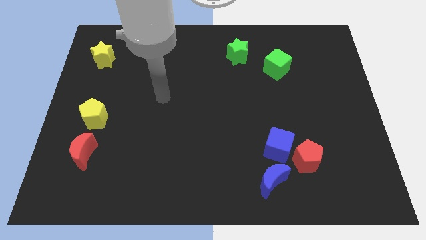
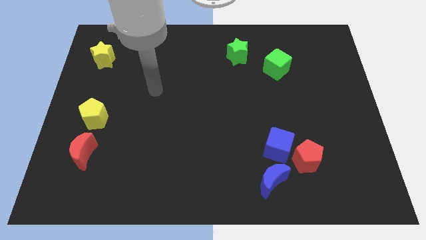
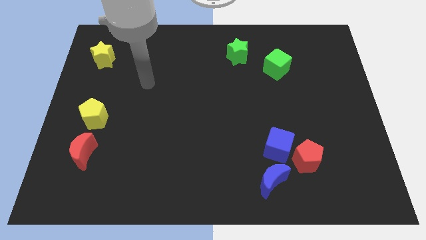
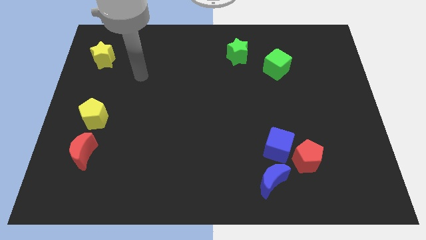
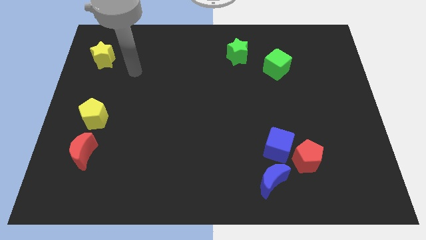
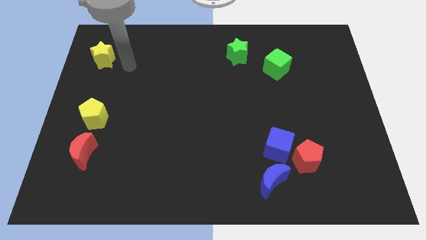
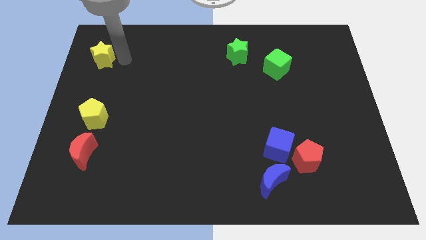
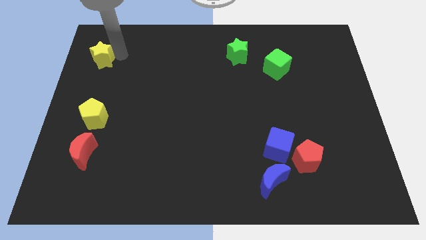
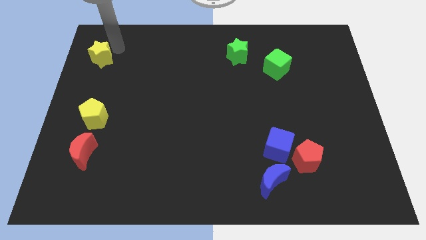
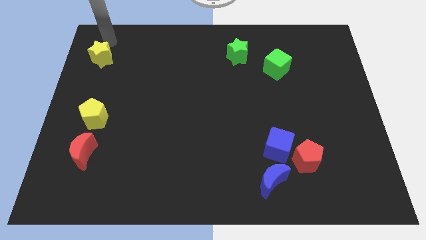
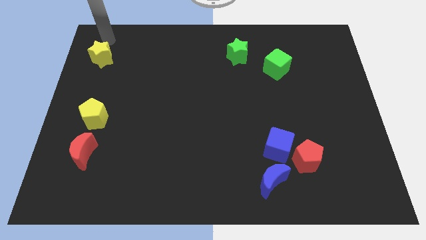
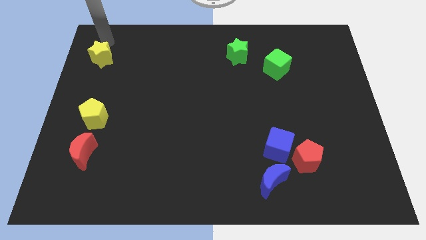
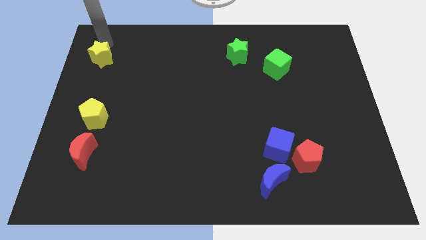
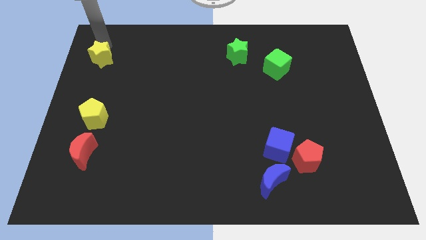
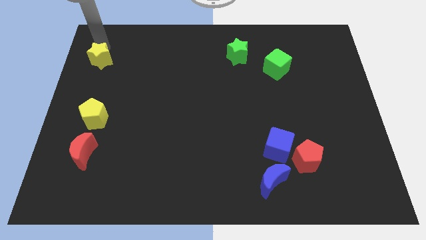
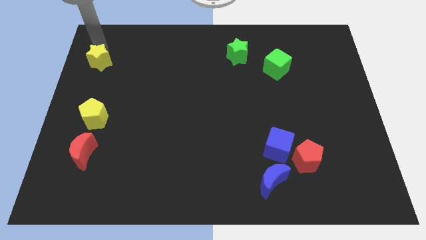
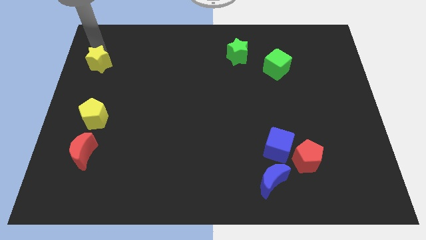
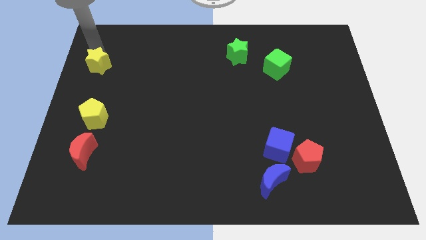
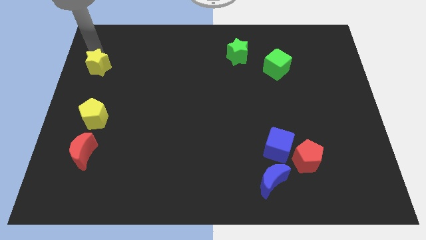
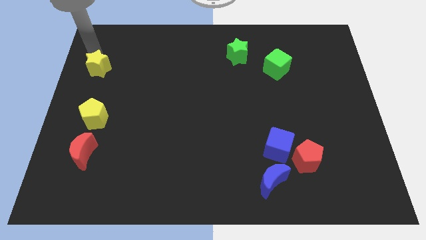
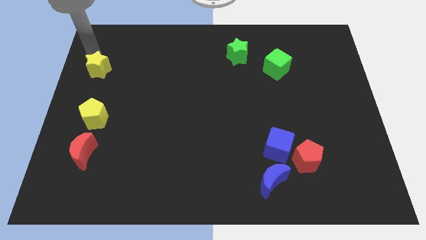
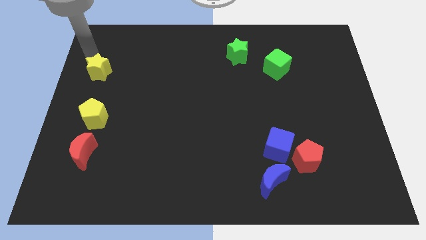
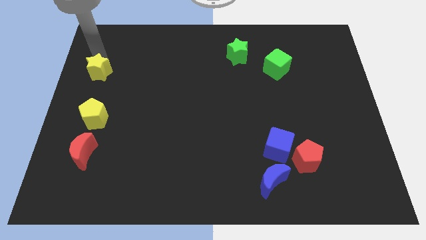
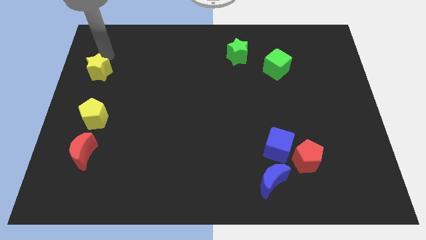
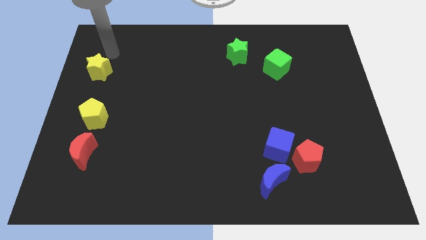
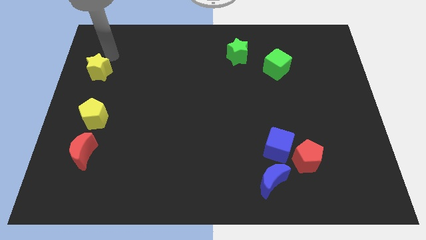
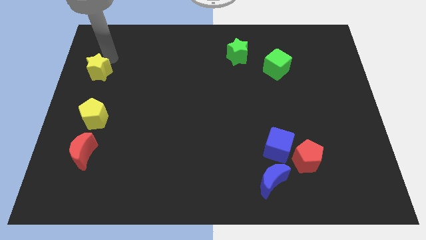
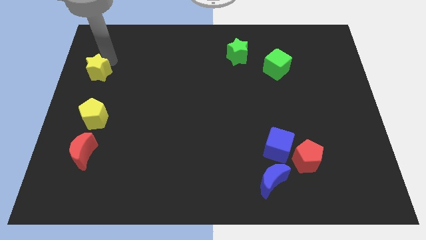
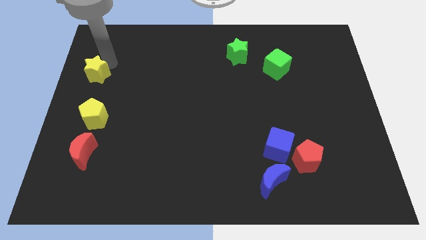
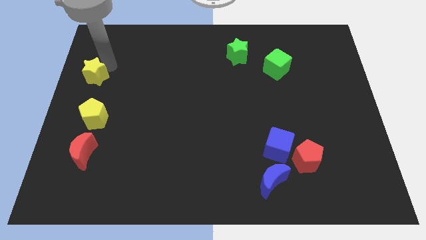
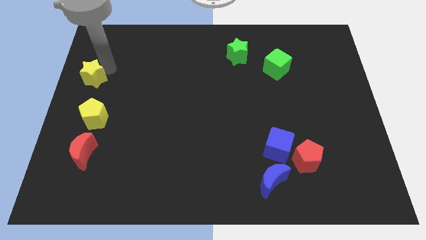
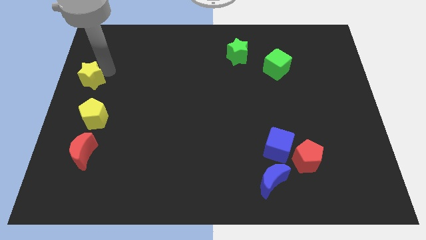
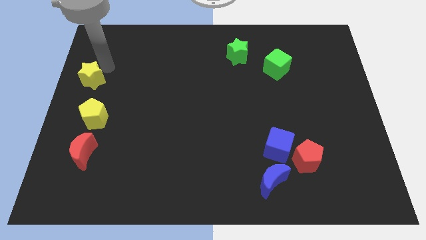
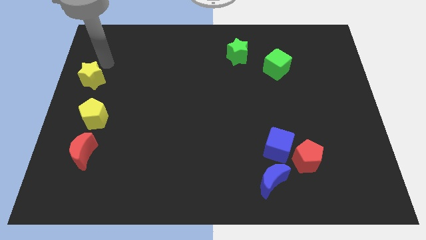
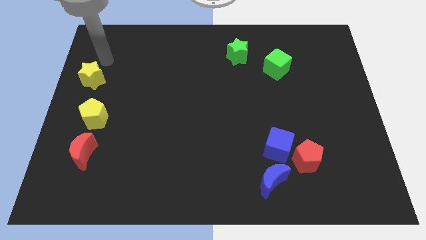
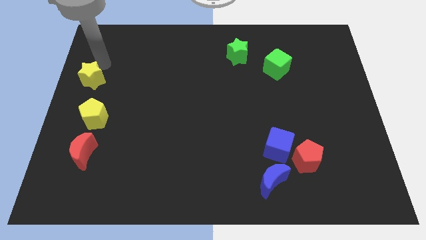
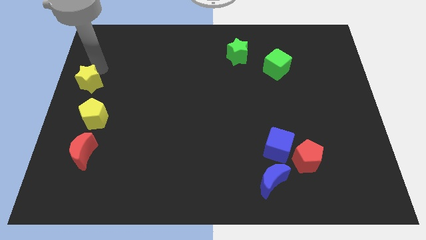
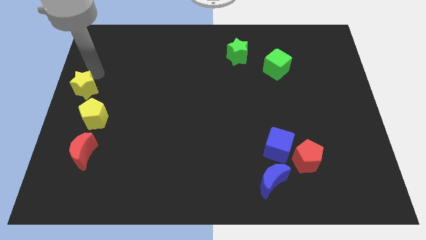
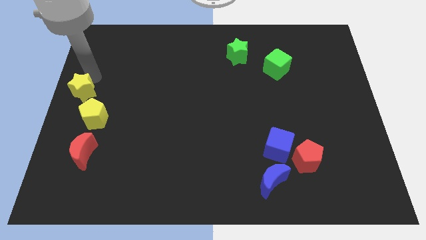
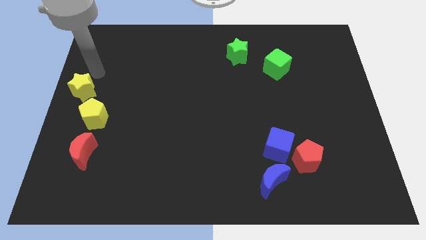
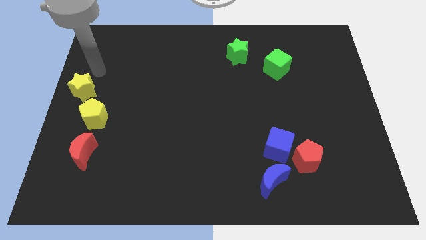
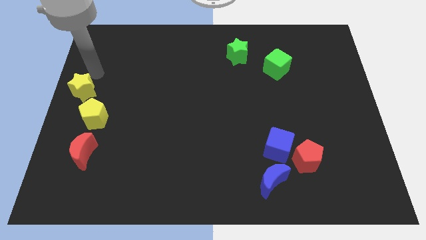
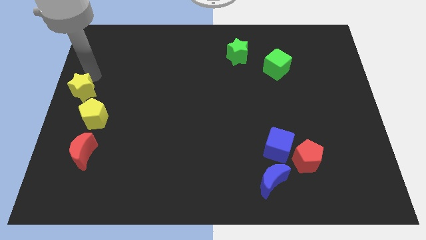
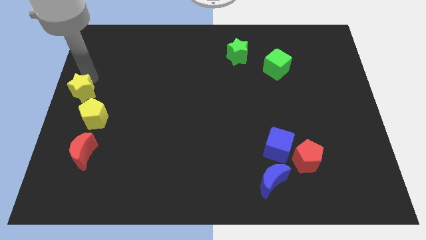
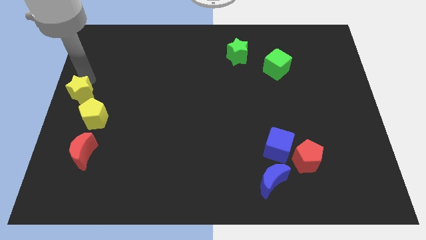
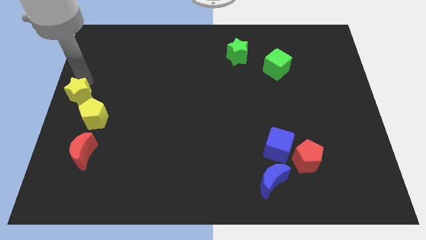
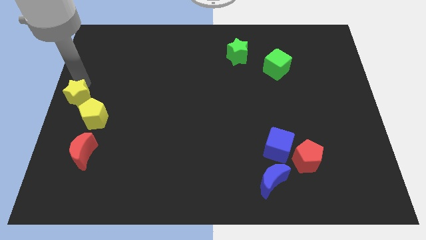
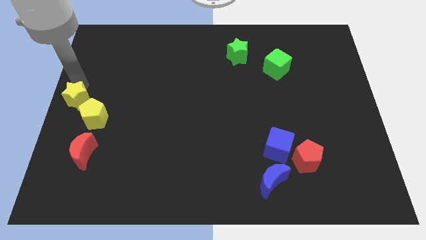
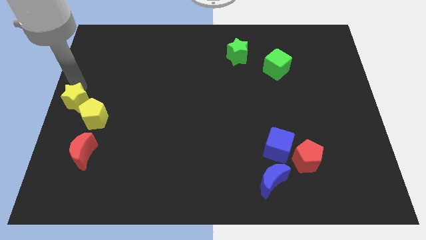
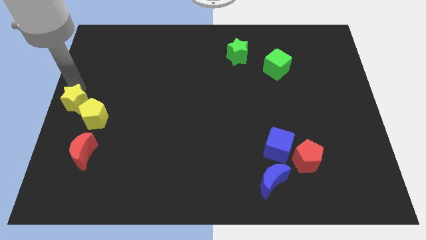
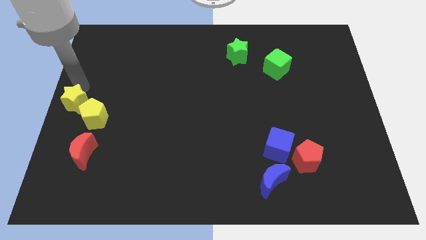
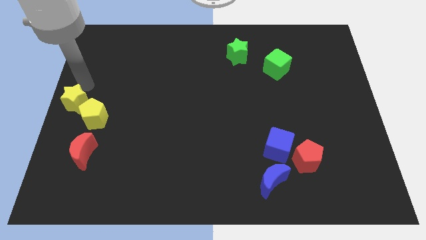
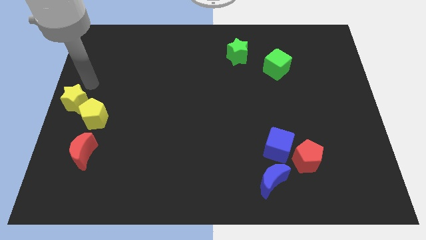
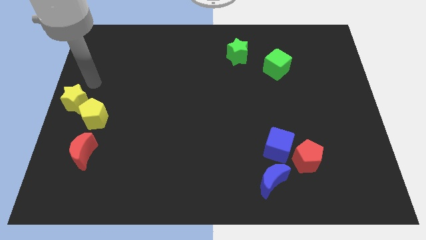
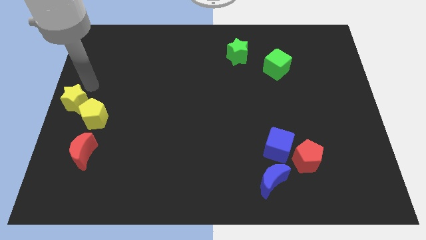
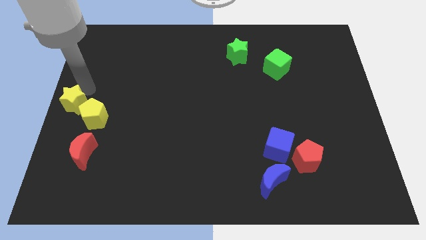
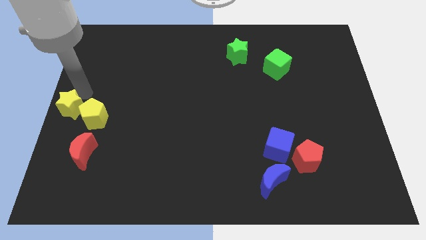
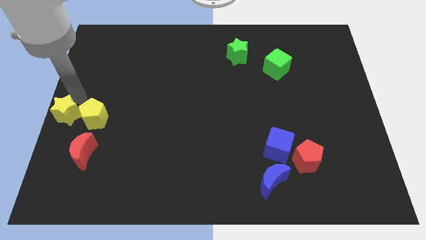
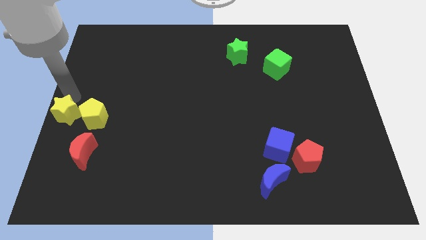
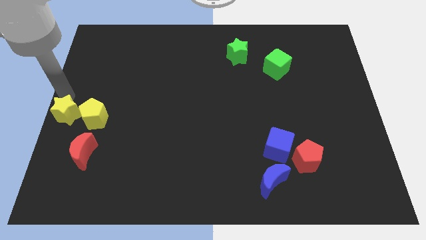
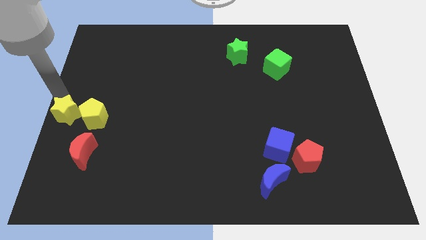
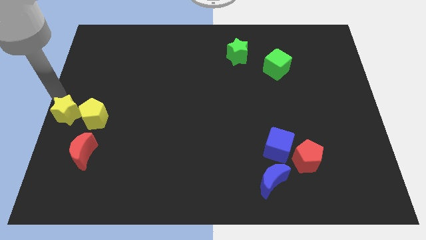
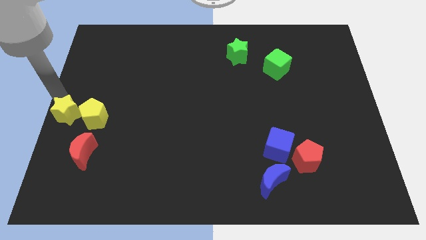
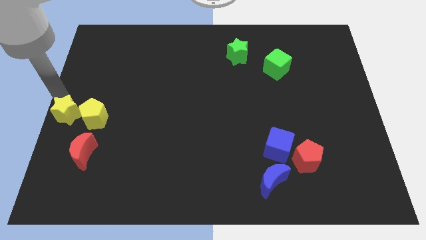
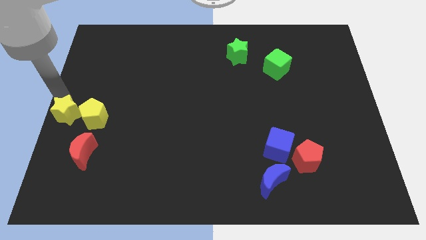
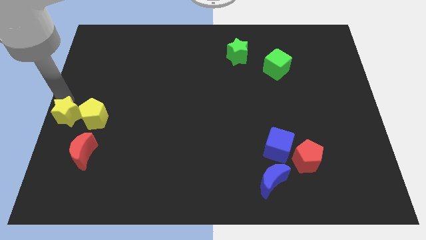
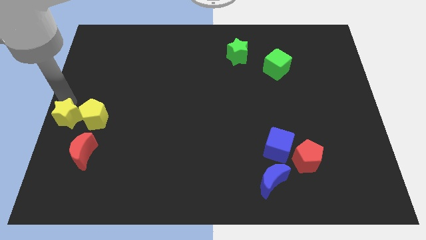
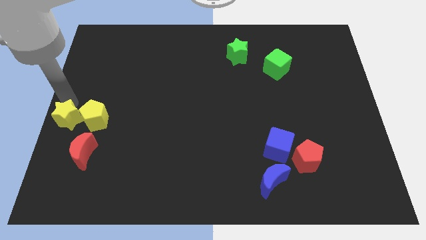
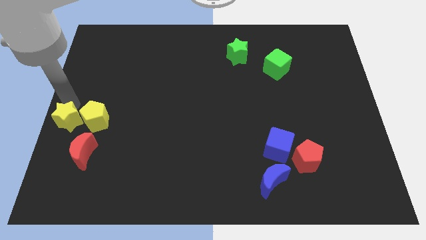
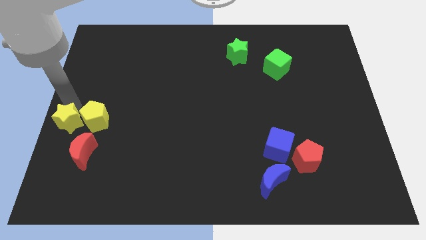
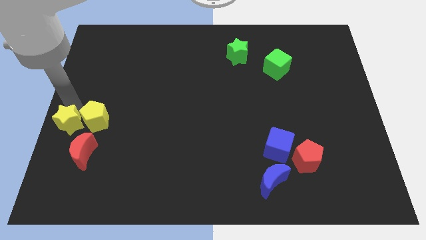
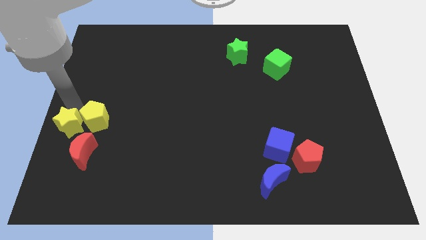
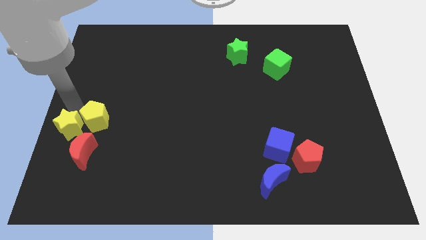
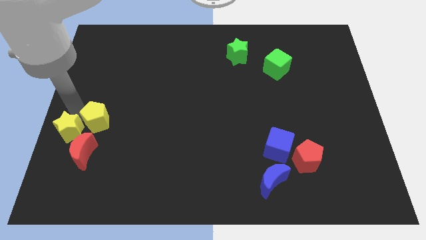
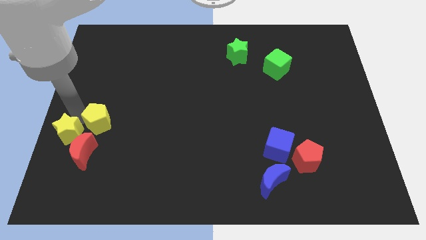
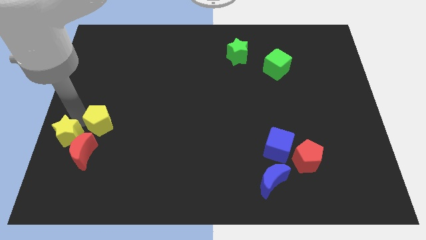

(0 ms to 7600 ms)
slide the yellow star towards the red moon
